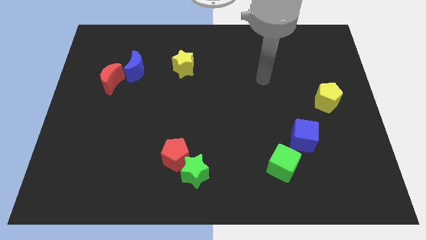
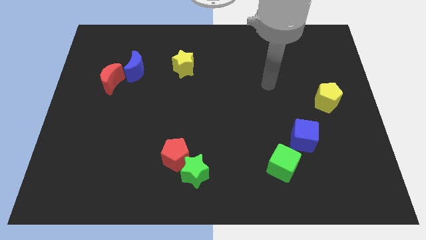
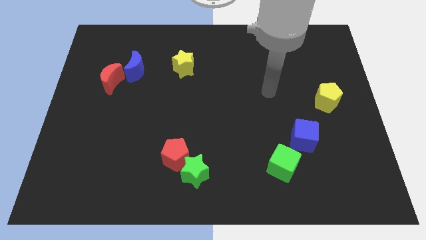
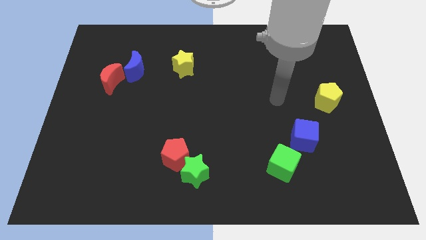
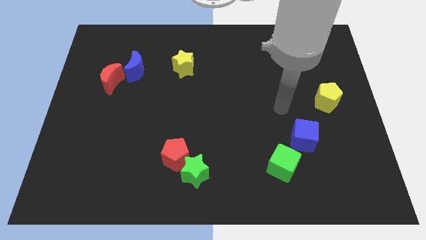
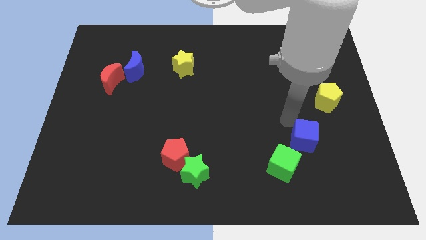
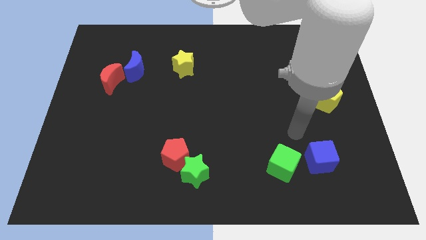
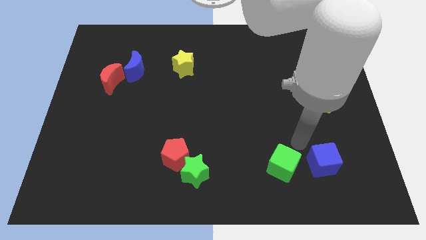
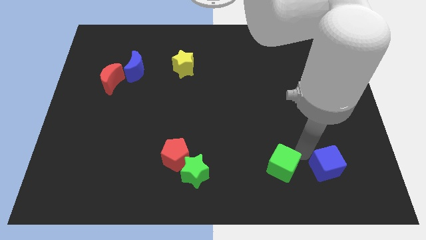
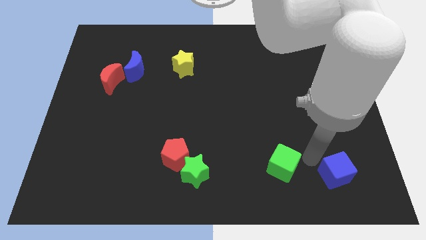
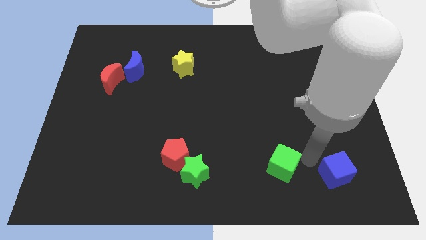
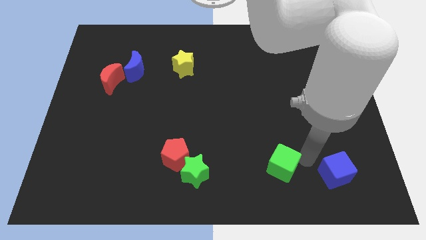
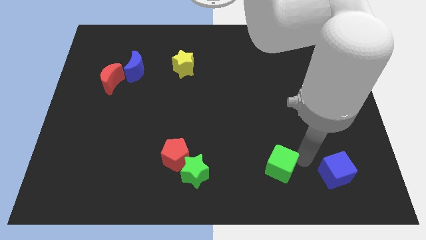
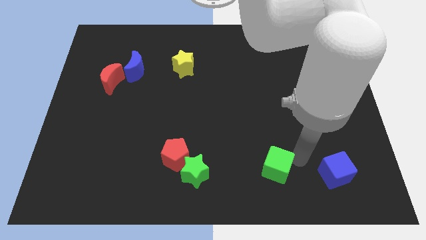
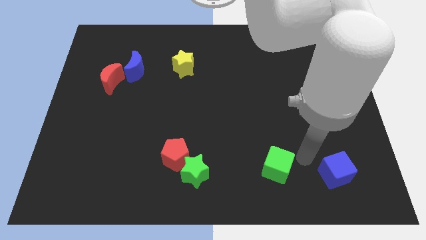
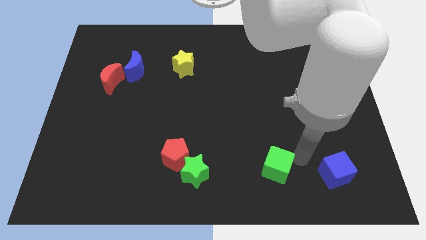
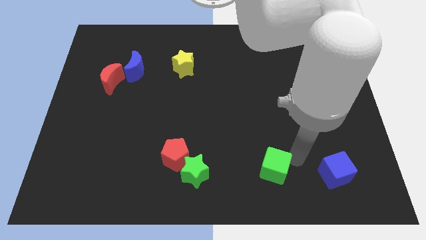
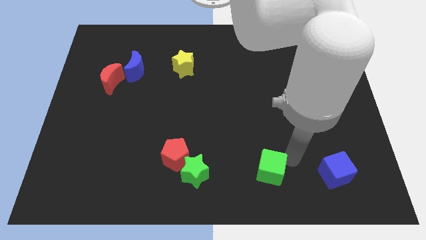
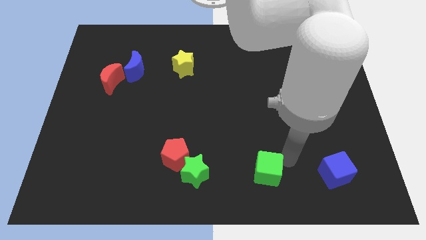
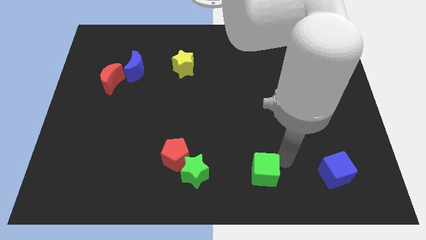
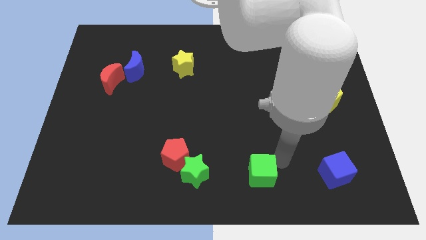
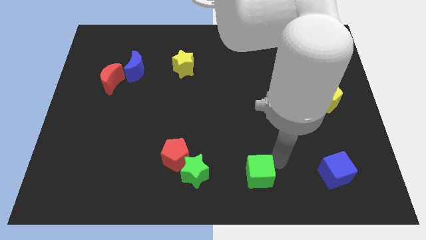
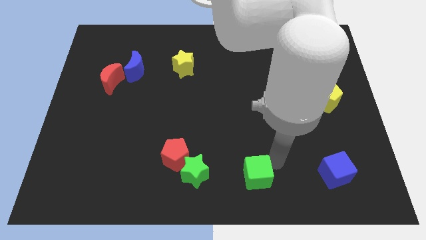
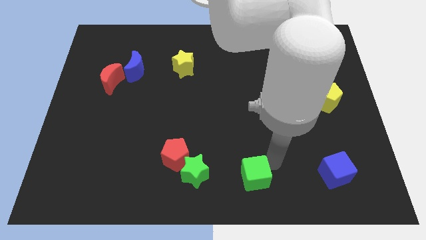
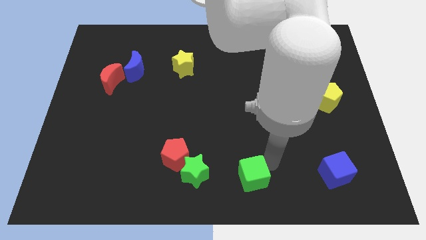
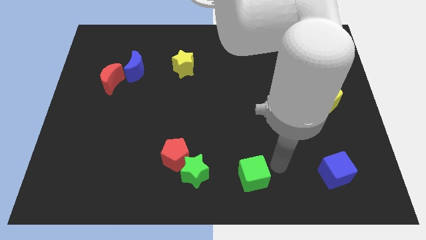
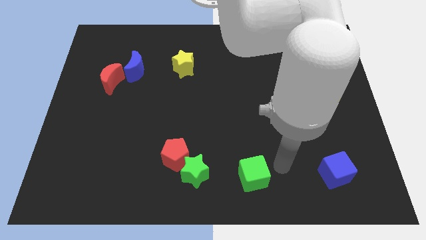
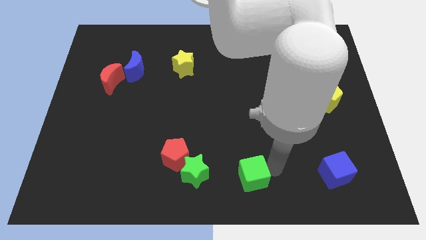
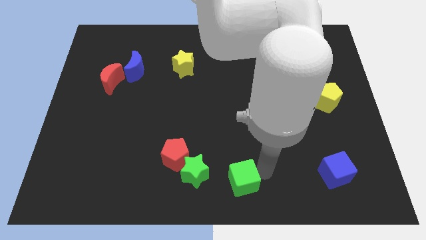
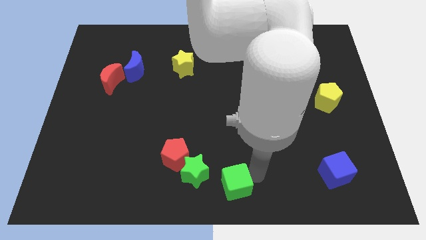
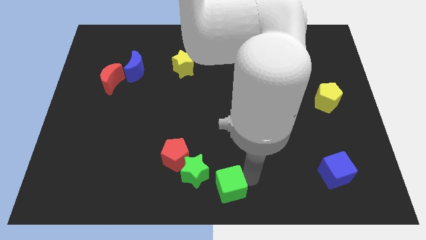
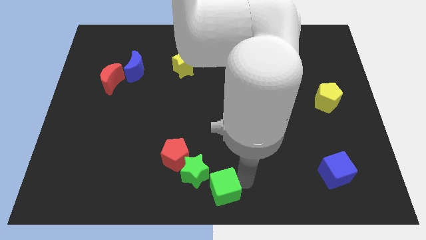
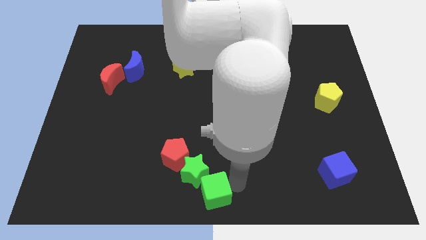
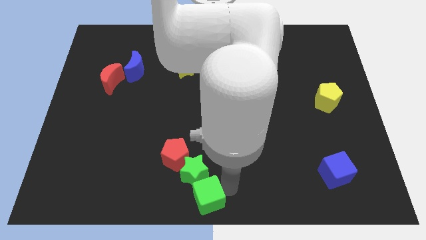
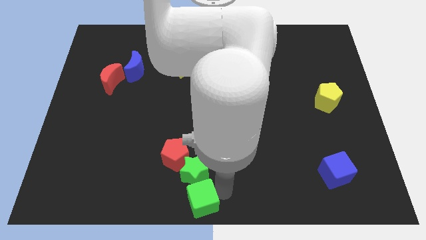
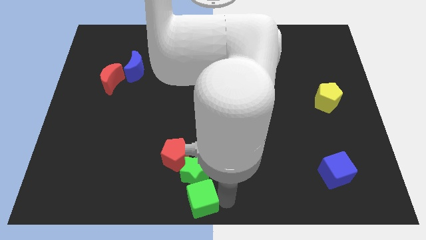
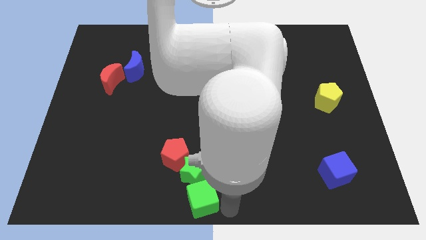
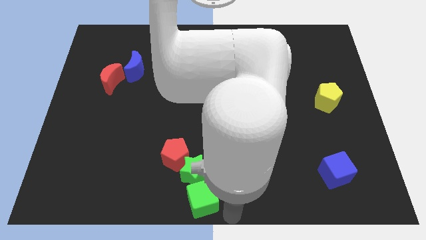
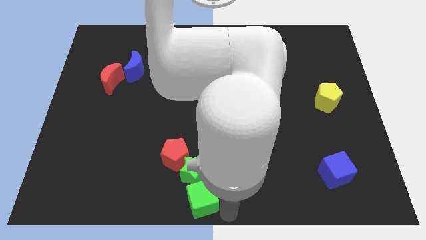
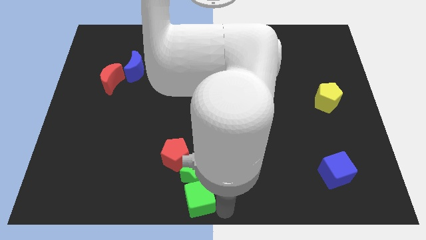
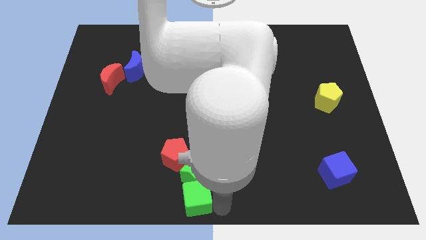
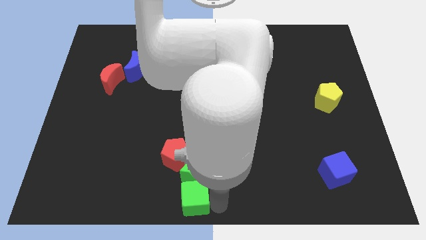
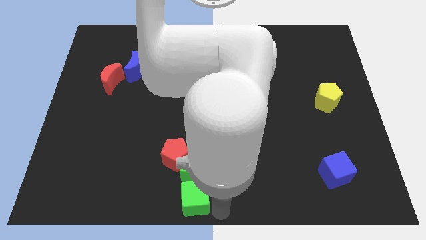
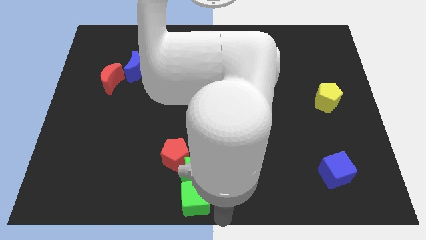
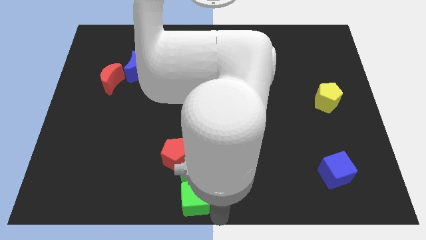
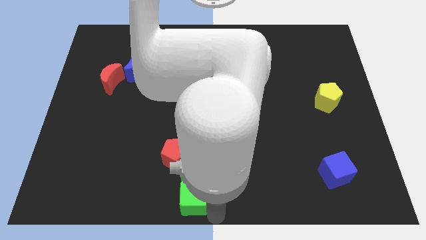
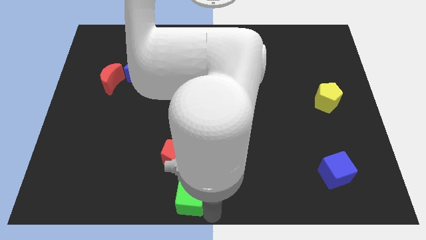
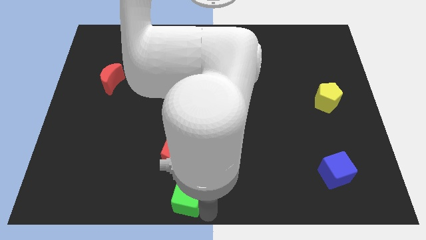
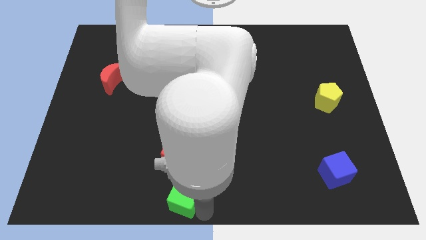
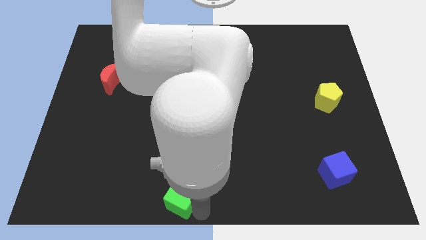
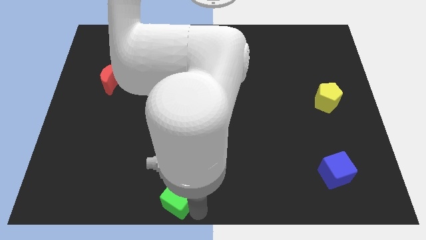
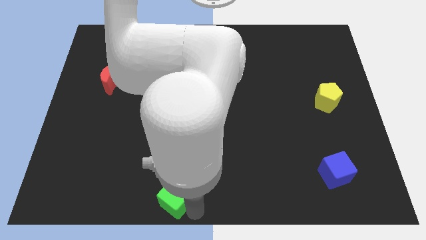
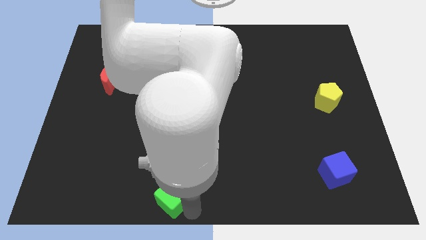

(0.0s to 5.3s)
slide the green cube left

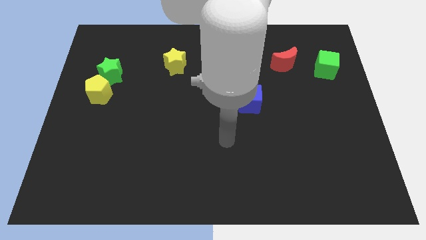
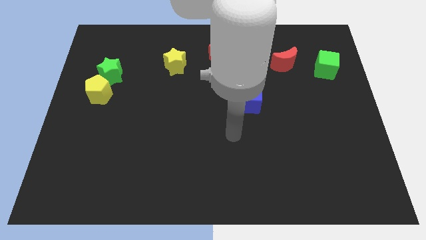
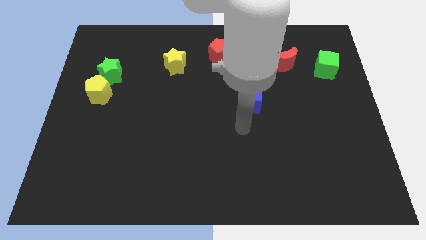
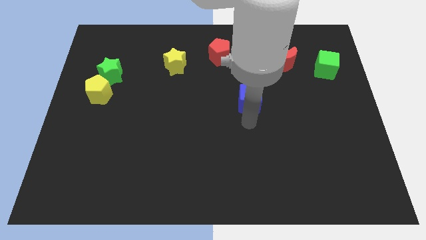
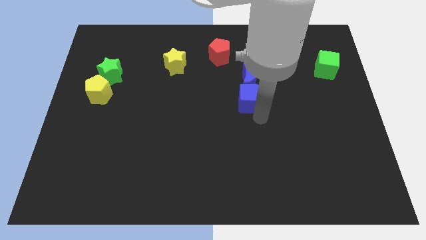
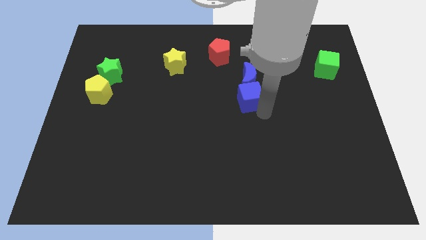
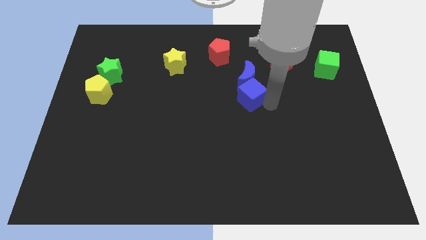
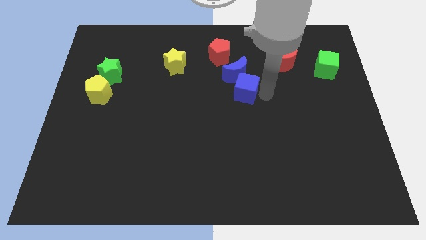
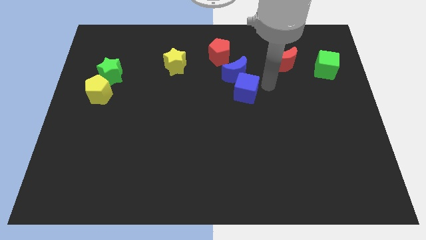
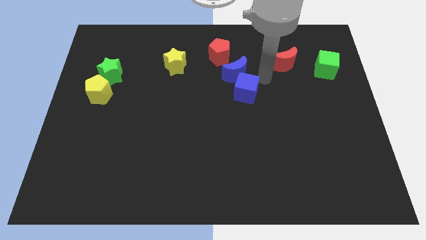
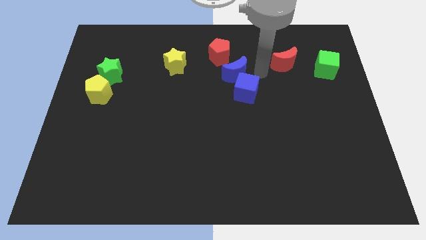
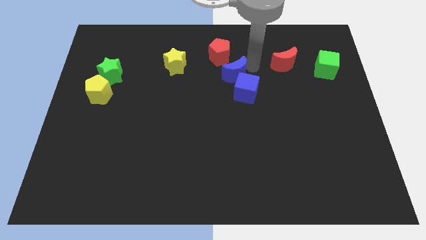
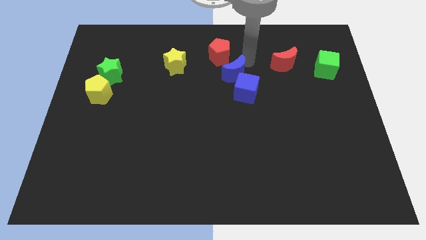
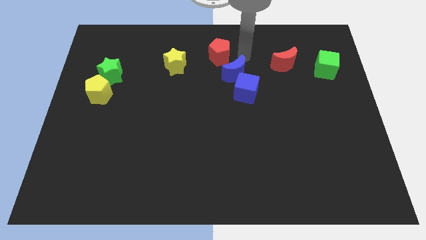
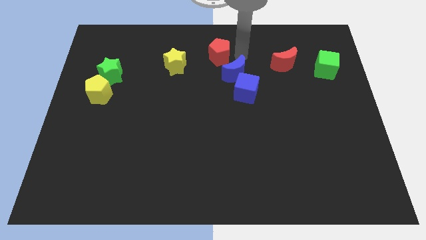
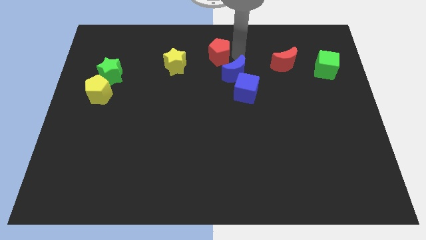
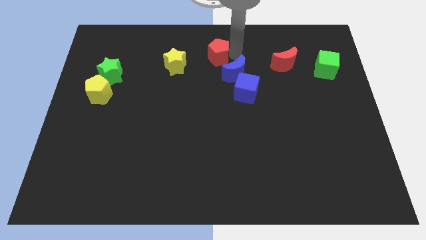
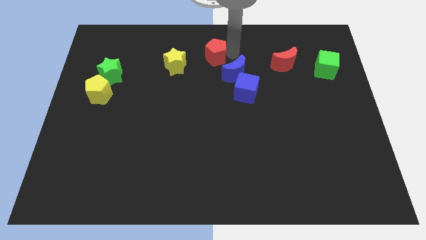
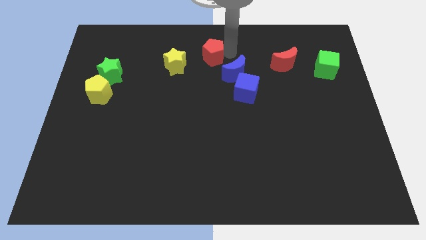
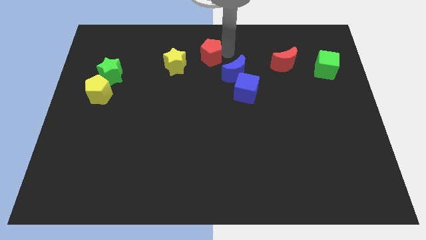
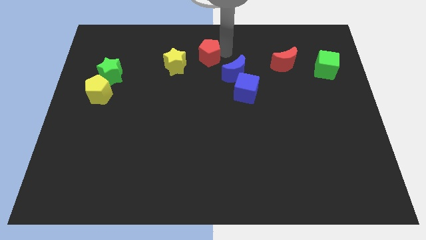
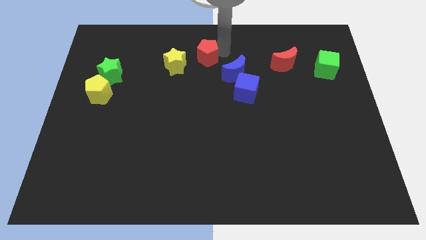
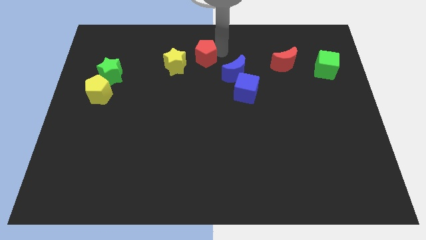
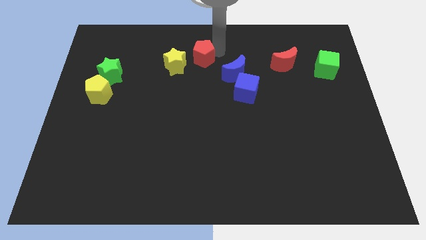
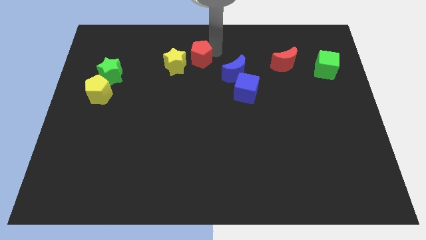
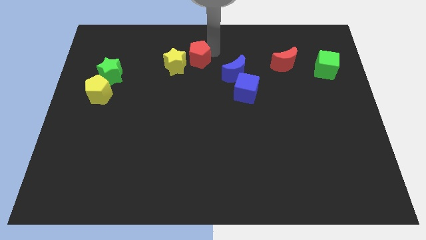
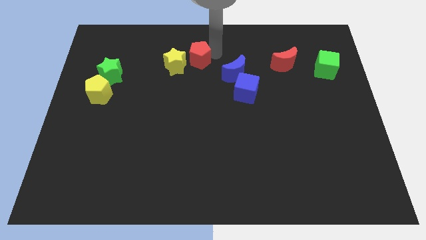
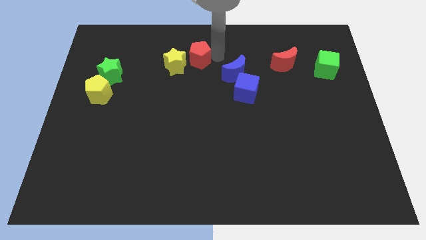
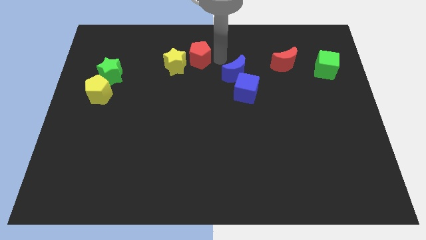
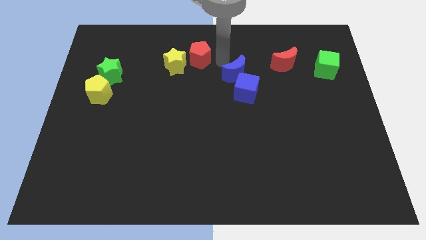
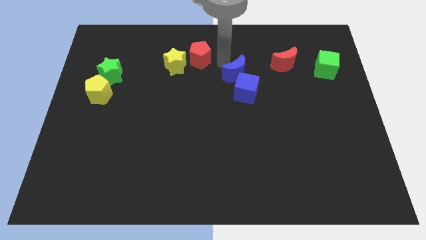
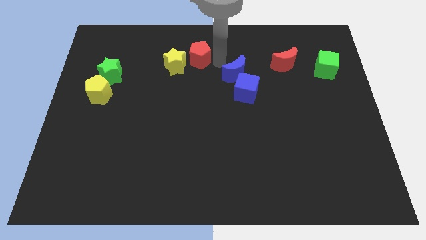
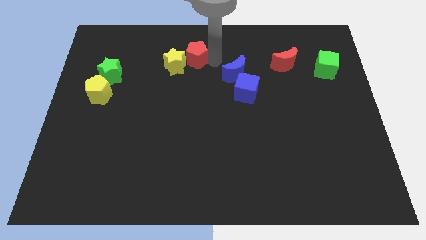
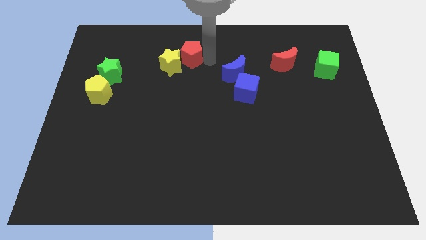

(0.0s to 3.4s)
slide the red pentagon slightly left
